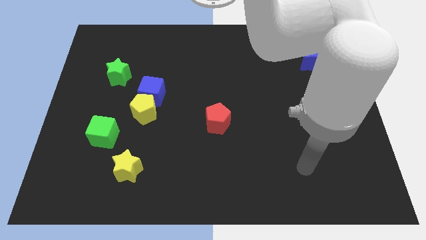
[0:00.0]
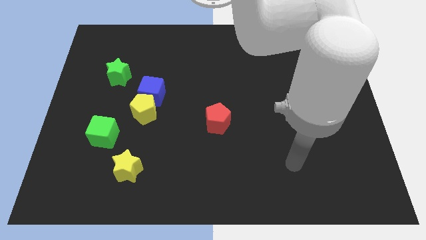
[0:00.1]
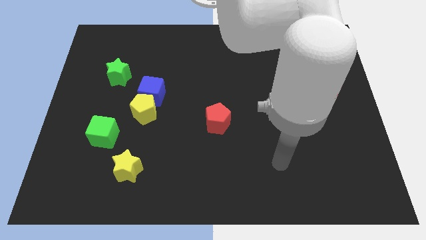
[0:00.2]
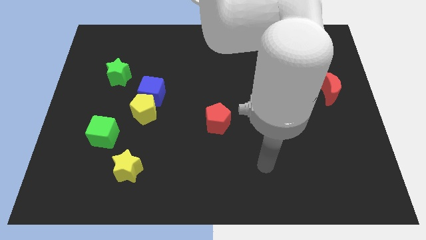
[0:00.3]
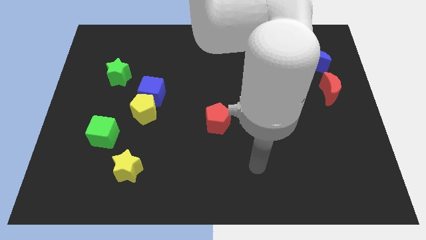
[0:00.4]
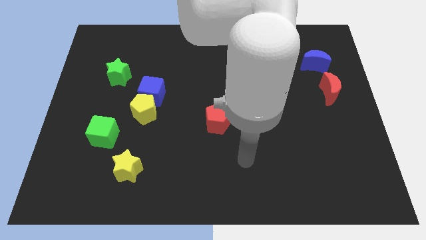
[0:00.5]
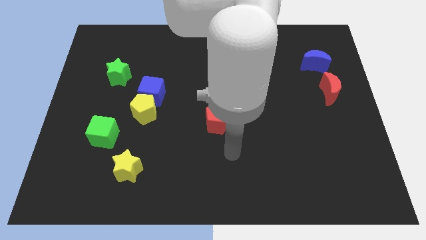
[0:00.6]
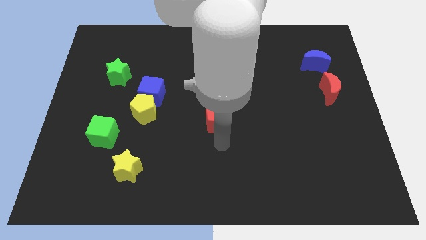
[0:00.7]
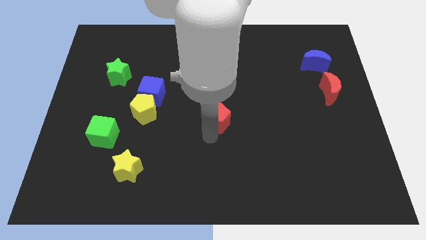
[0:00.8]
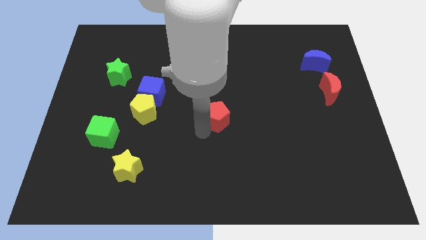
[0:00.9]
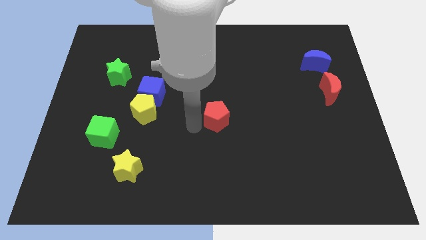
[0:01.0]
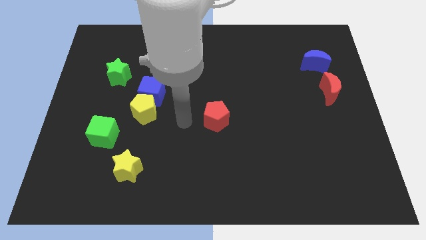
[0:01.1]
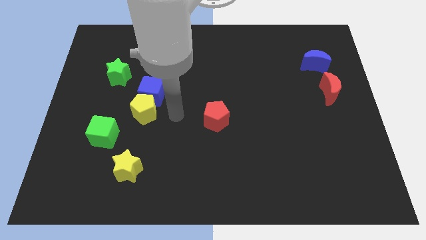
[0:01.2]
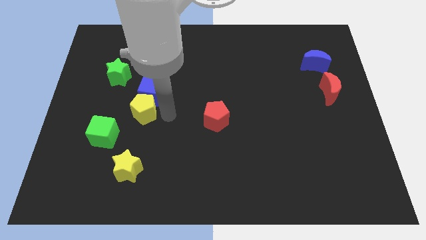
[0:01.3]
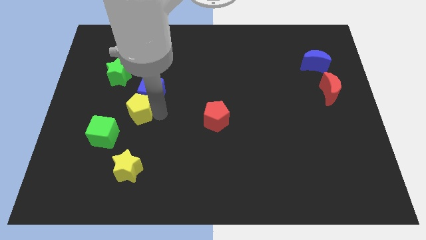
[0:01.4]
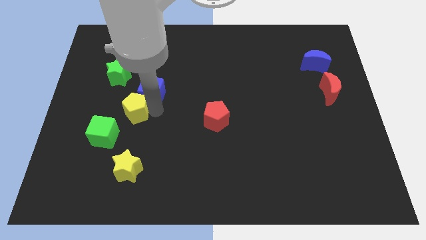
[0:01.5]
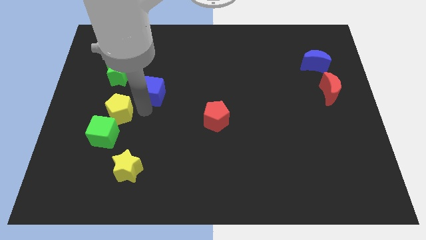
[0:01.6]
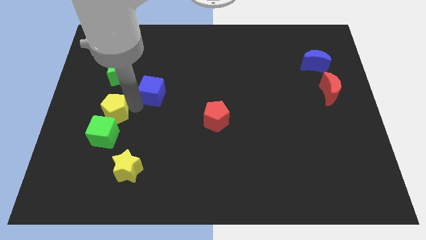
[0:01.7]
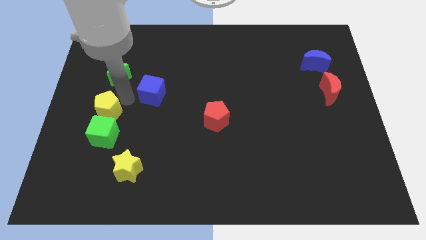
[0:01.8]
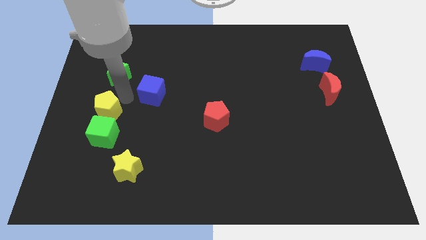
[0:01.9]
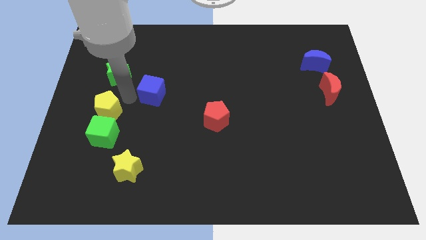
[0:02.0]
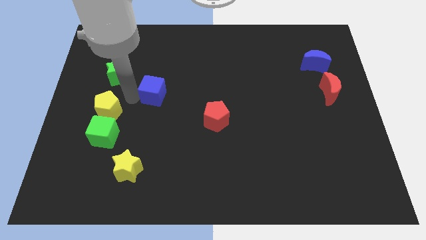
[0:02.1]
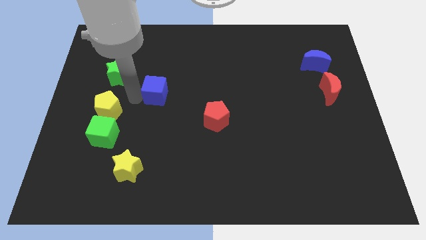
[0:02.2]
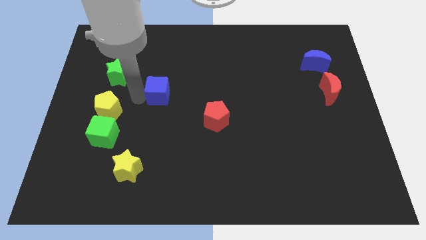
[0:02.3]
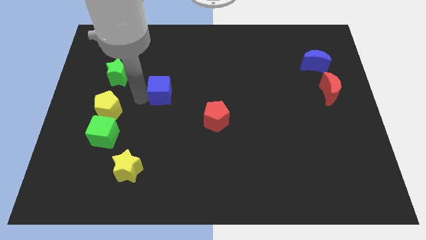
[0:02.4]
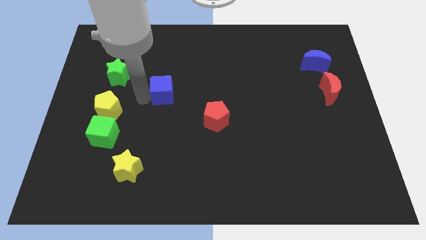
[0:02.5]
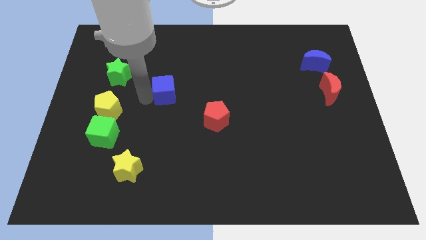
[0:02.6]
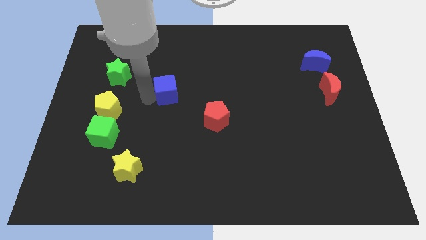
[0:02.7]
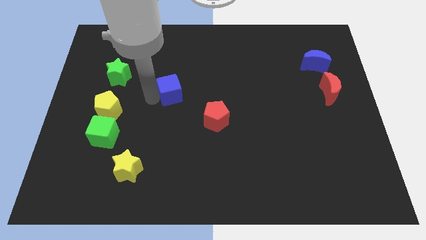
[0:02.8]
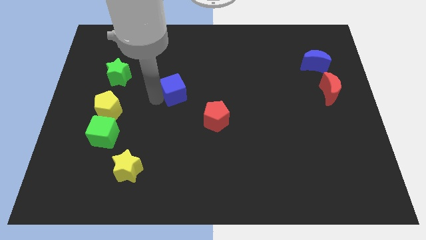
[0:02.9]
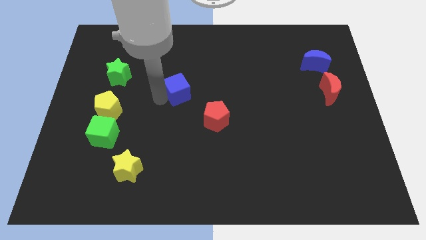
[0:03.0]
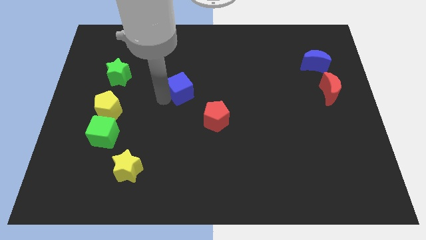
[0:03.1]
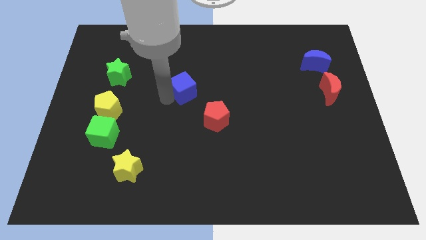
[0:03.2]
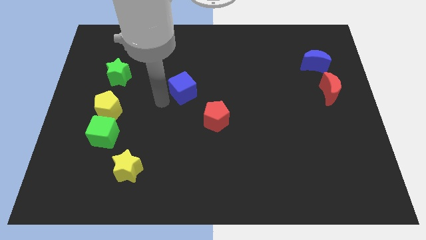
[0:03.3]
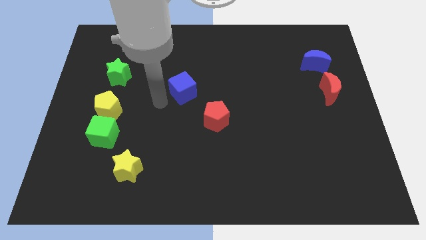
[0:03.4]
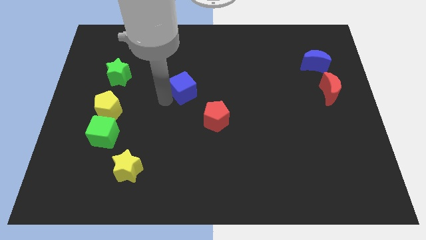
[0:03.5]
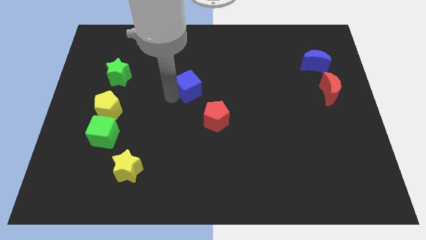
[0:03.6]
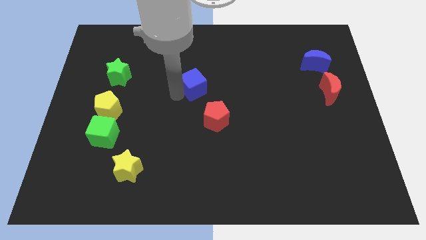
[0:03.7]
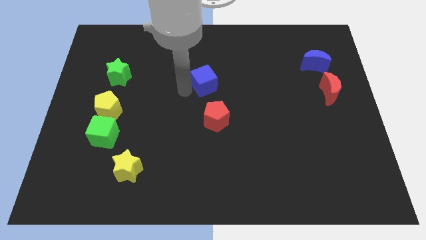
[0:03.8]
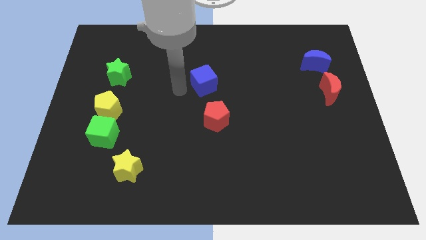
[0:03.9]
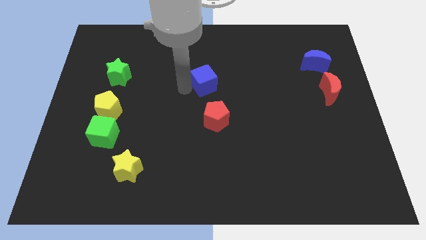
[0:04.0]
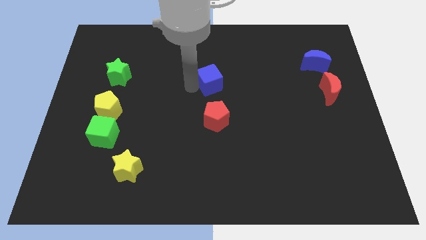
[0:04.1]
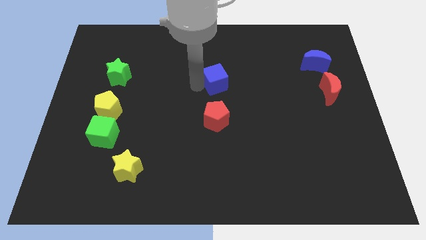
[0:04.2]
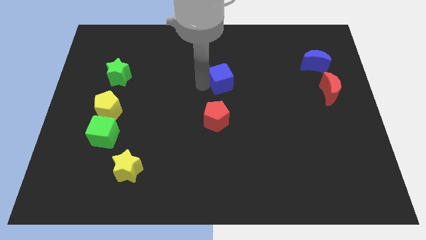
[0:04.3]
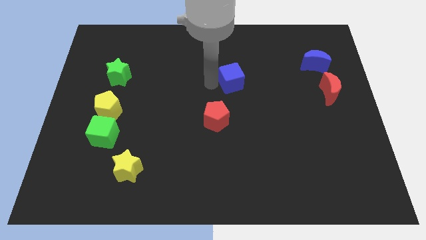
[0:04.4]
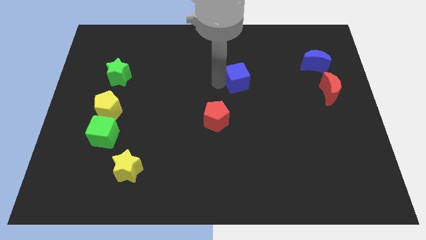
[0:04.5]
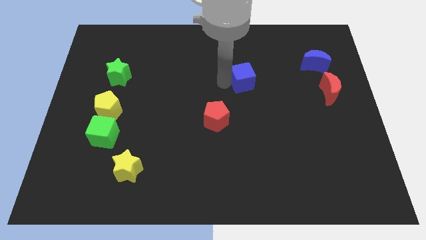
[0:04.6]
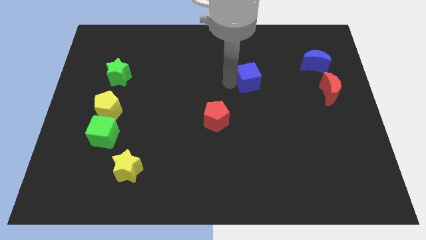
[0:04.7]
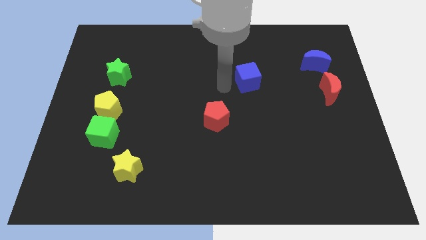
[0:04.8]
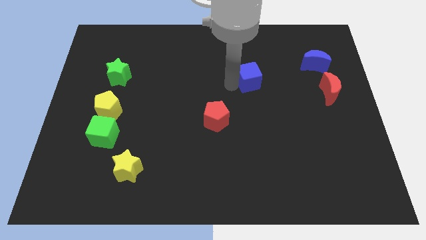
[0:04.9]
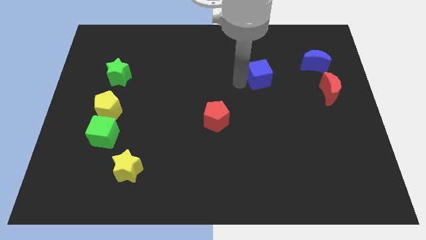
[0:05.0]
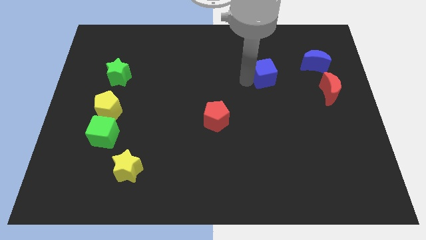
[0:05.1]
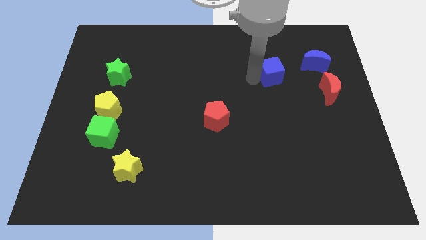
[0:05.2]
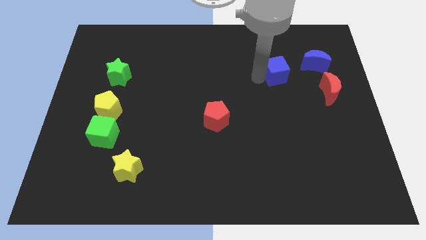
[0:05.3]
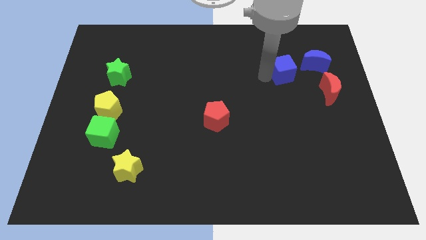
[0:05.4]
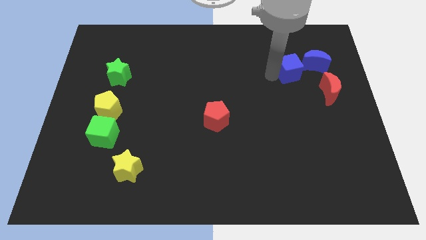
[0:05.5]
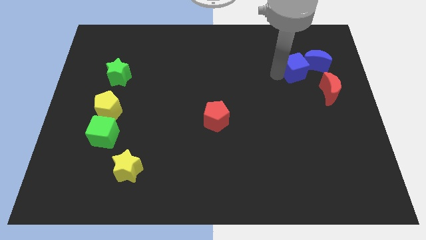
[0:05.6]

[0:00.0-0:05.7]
slide the blue cube to the blue moon

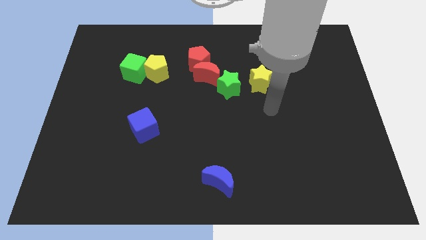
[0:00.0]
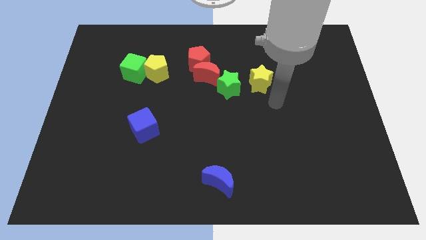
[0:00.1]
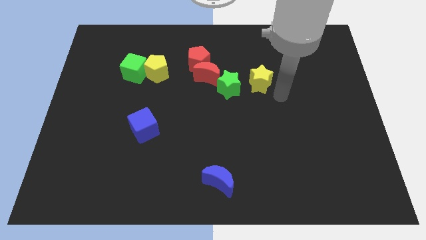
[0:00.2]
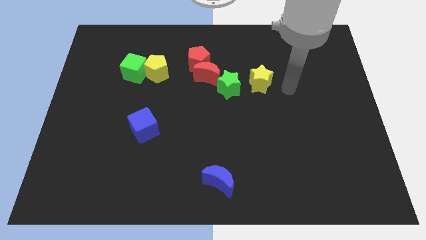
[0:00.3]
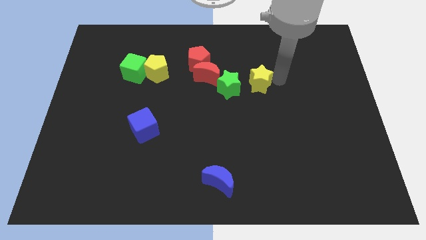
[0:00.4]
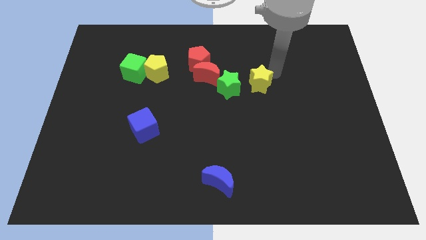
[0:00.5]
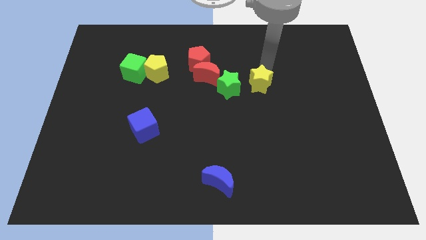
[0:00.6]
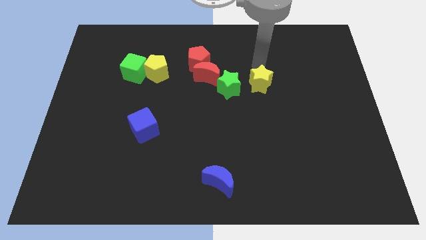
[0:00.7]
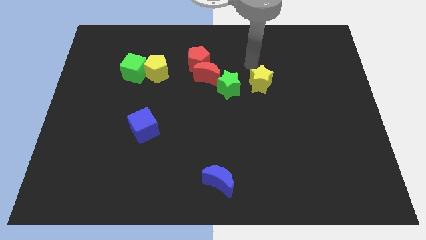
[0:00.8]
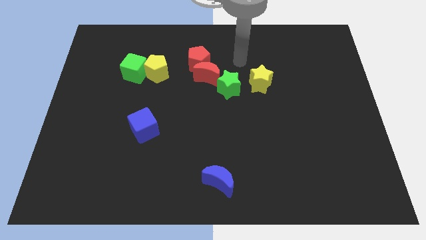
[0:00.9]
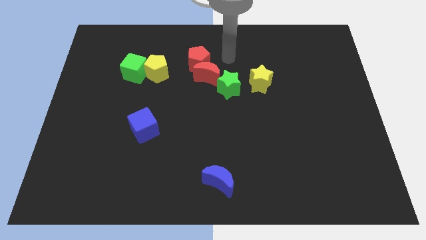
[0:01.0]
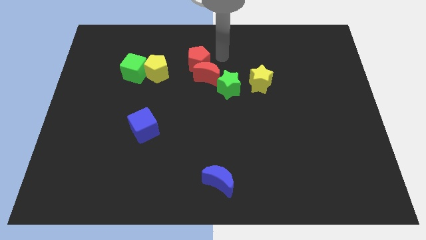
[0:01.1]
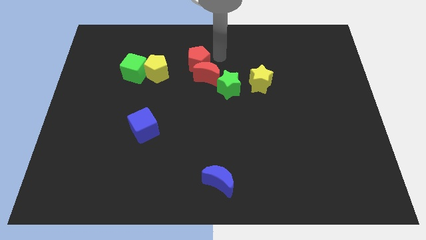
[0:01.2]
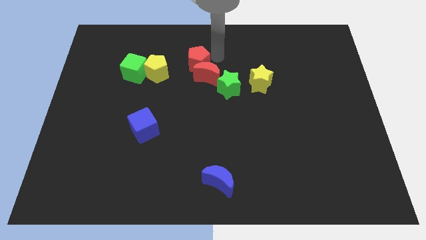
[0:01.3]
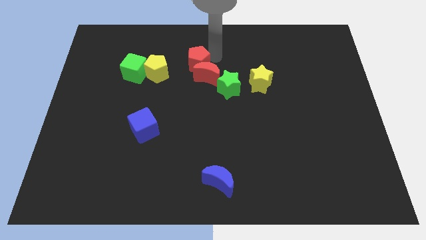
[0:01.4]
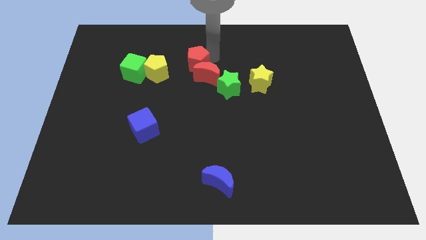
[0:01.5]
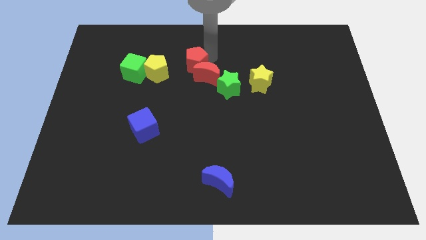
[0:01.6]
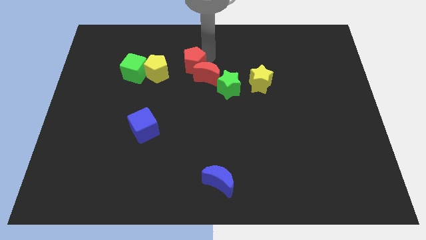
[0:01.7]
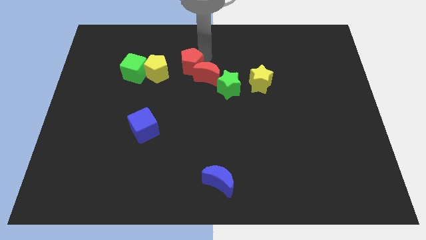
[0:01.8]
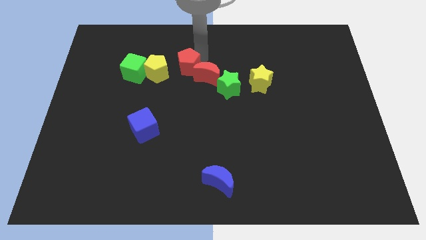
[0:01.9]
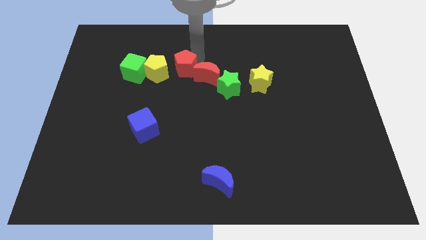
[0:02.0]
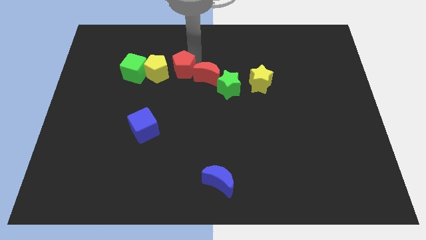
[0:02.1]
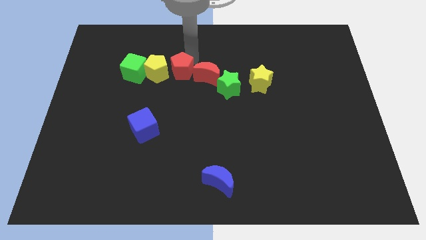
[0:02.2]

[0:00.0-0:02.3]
slide the red pentagon to the yellow pentagon
